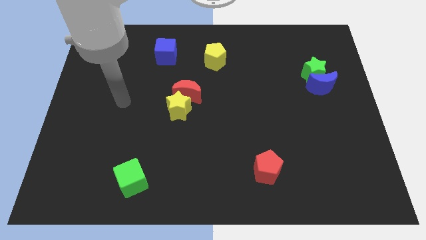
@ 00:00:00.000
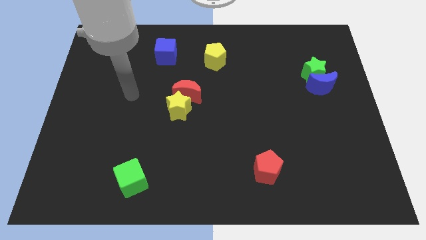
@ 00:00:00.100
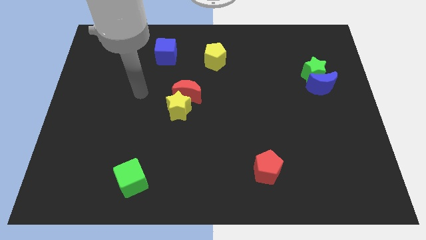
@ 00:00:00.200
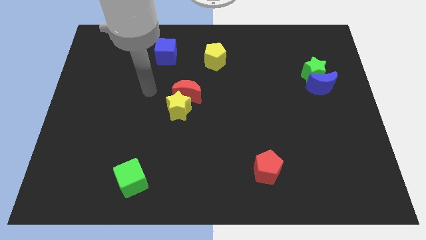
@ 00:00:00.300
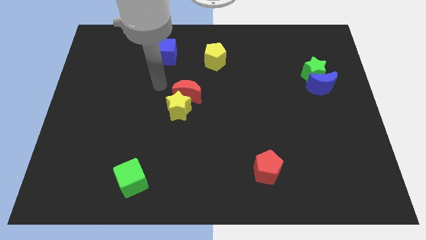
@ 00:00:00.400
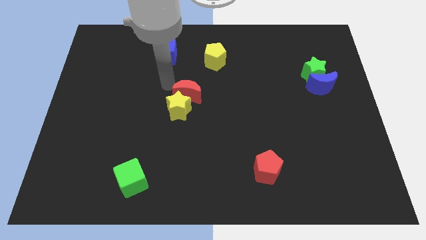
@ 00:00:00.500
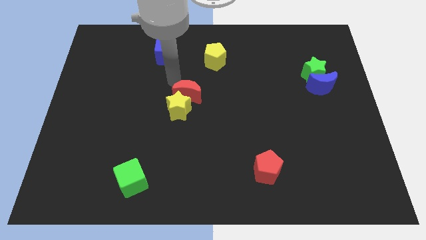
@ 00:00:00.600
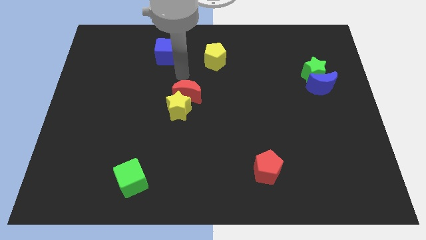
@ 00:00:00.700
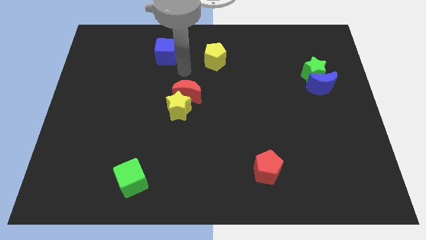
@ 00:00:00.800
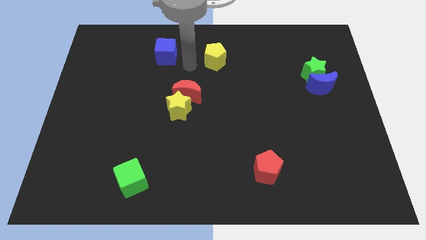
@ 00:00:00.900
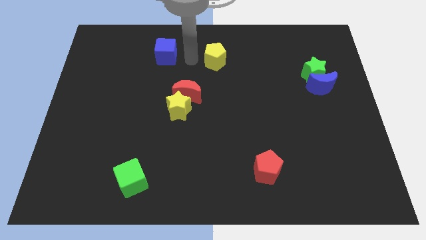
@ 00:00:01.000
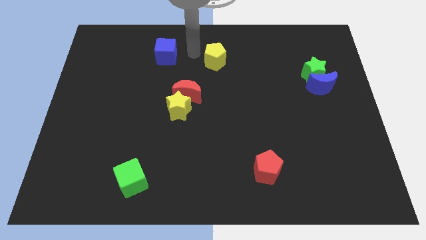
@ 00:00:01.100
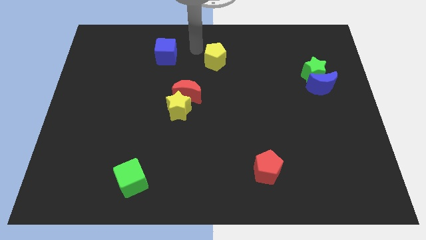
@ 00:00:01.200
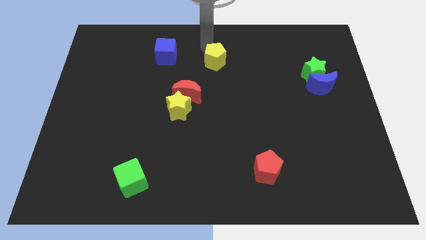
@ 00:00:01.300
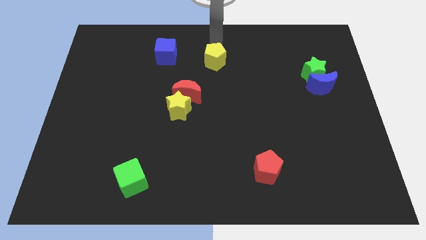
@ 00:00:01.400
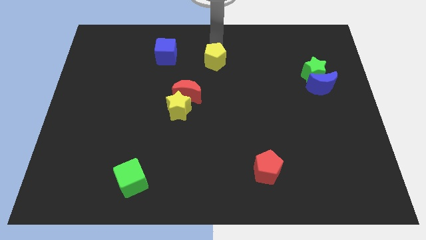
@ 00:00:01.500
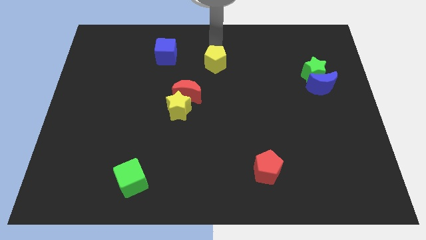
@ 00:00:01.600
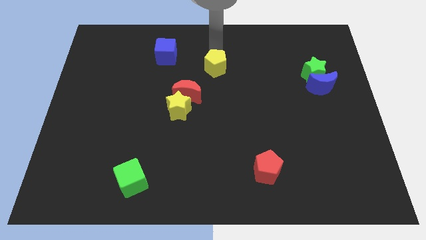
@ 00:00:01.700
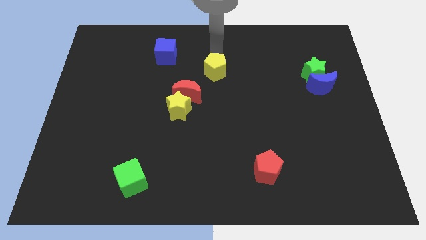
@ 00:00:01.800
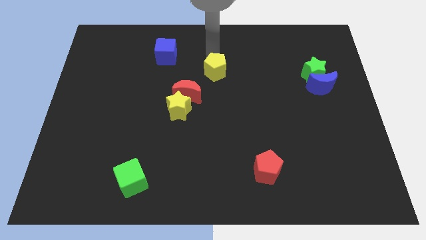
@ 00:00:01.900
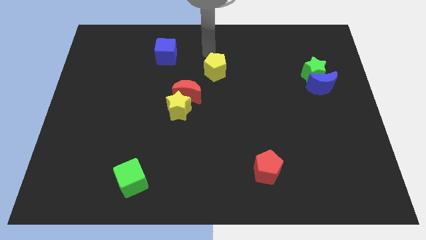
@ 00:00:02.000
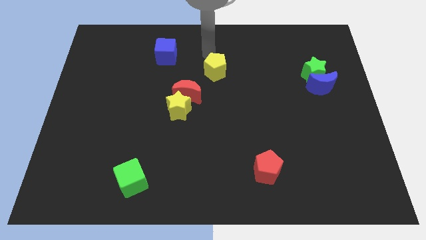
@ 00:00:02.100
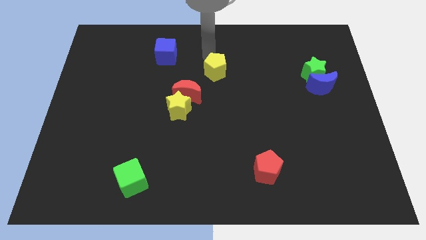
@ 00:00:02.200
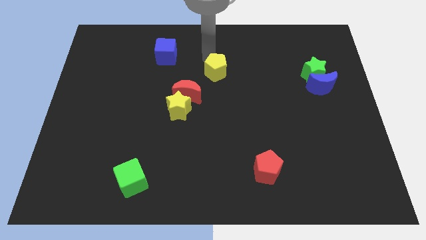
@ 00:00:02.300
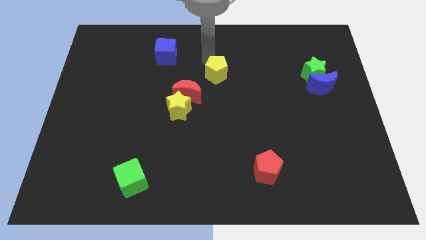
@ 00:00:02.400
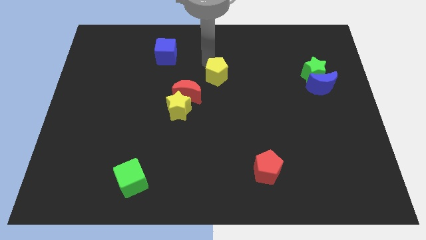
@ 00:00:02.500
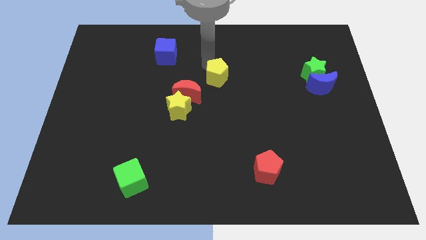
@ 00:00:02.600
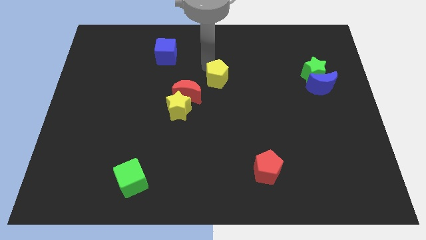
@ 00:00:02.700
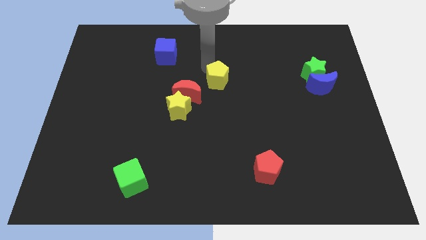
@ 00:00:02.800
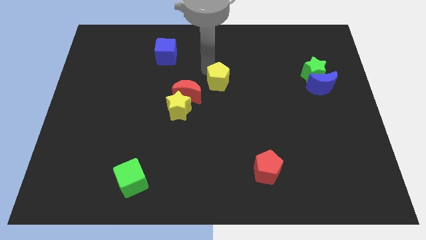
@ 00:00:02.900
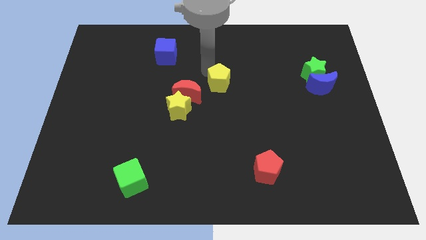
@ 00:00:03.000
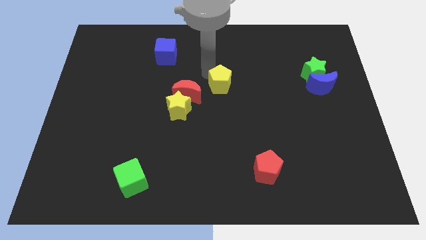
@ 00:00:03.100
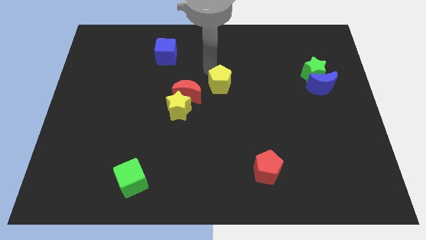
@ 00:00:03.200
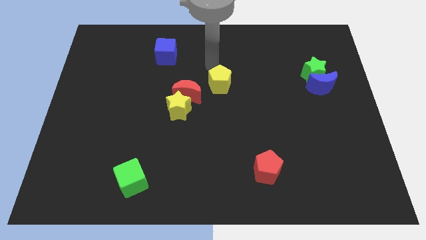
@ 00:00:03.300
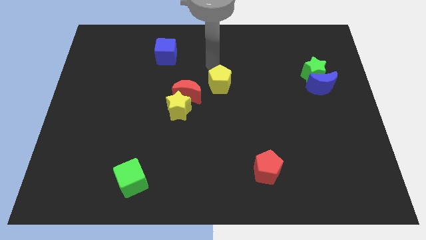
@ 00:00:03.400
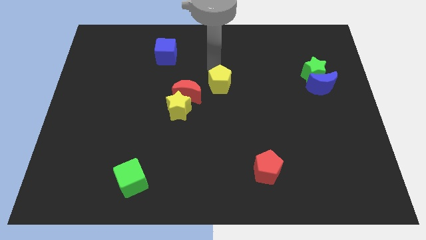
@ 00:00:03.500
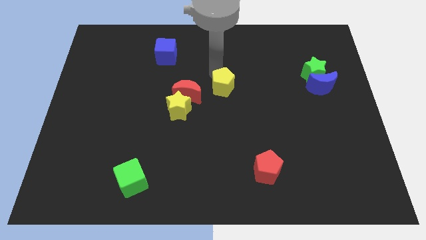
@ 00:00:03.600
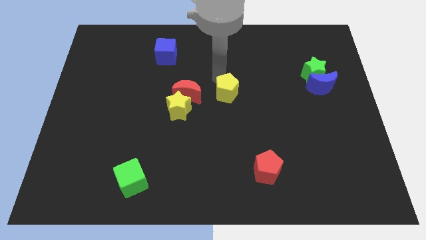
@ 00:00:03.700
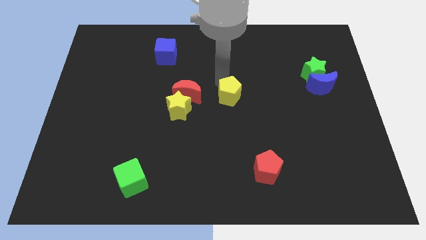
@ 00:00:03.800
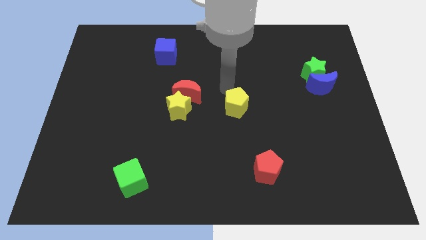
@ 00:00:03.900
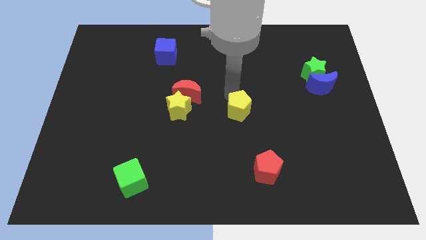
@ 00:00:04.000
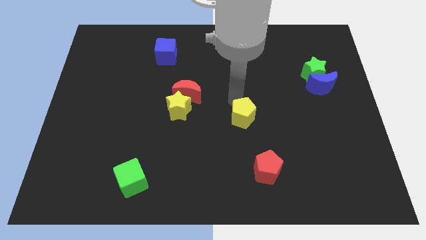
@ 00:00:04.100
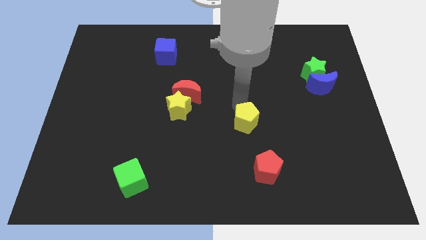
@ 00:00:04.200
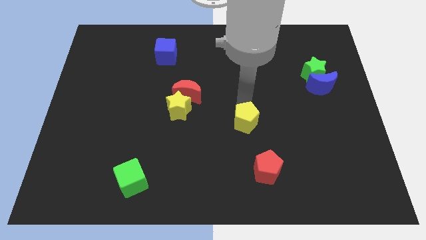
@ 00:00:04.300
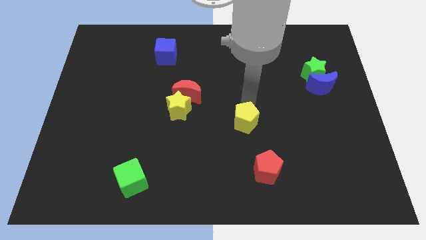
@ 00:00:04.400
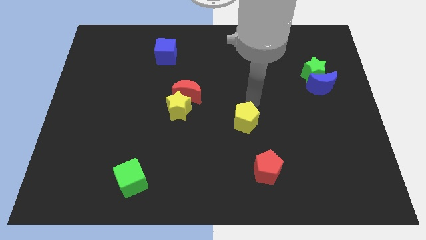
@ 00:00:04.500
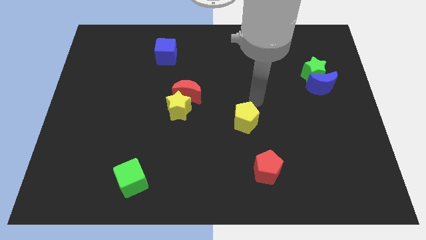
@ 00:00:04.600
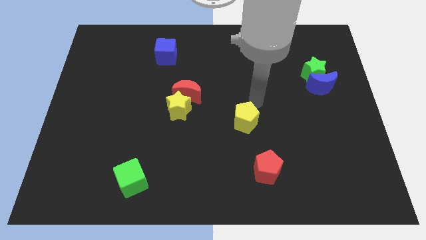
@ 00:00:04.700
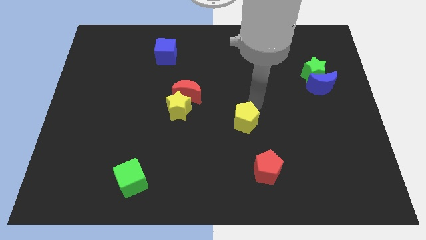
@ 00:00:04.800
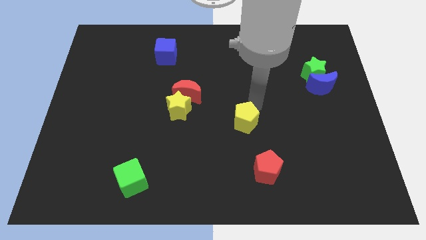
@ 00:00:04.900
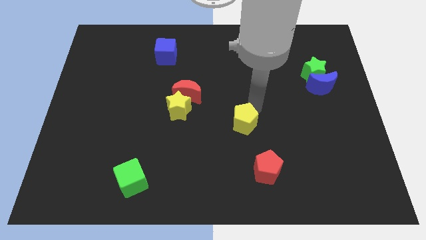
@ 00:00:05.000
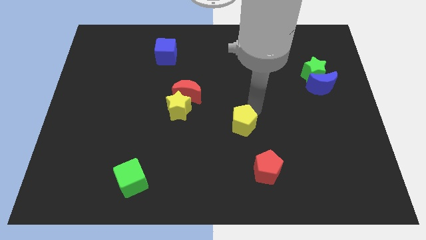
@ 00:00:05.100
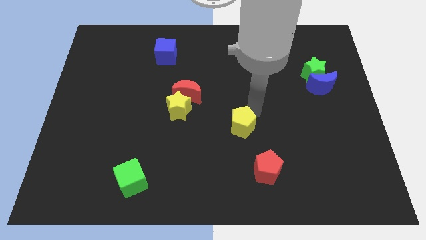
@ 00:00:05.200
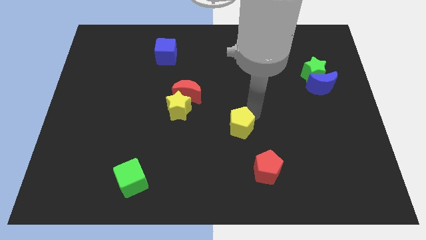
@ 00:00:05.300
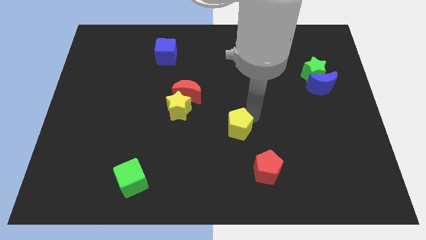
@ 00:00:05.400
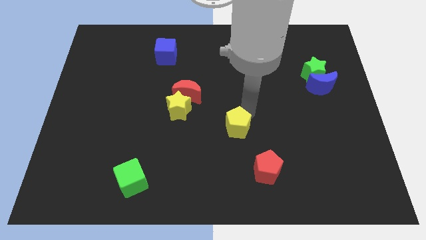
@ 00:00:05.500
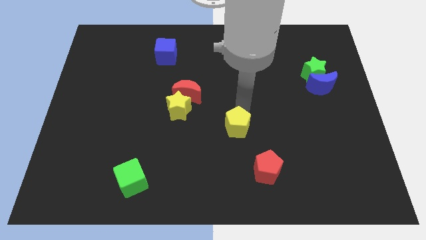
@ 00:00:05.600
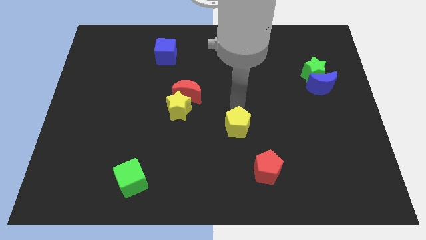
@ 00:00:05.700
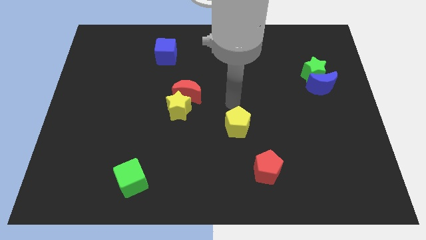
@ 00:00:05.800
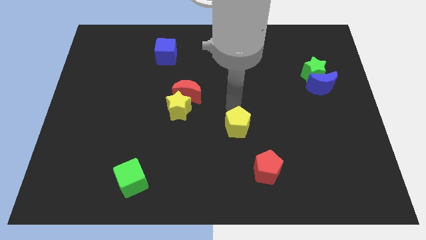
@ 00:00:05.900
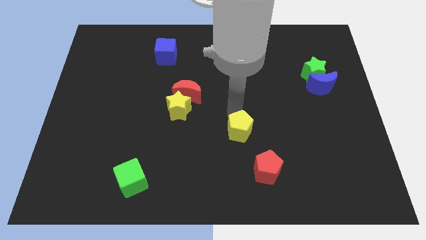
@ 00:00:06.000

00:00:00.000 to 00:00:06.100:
push the yellow pentagon to the top left side of the red pentagon
